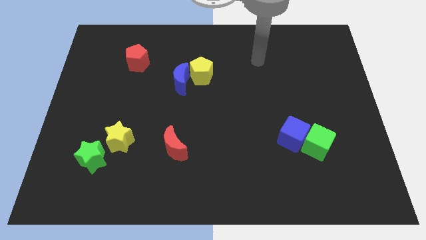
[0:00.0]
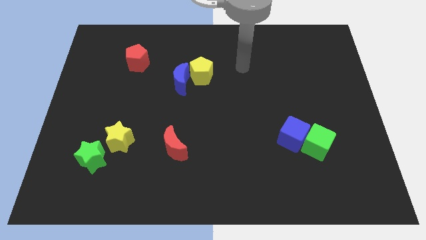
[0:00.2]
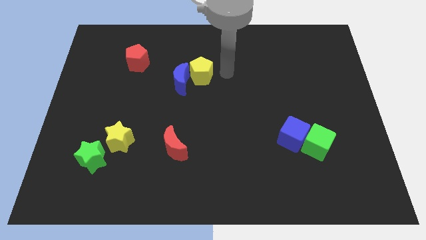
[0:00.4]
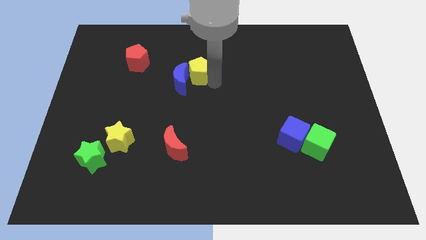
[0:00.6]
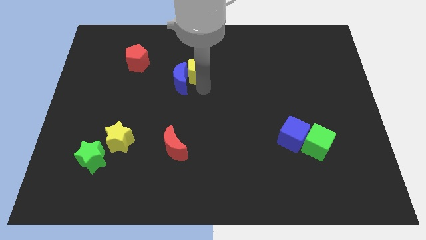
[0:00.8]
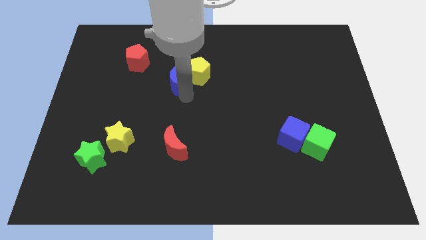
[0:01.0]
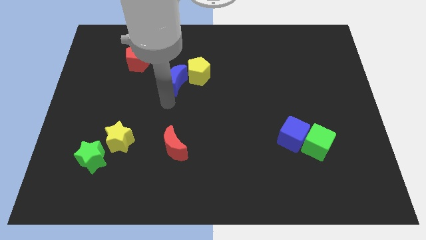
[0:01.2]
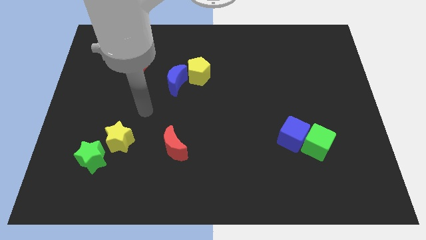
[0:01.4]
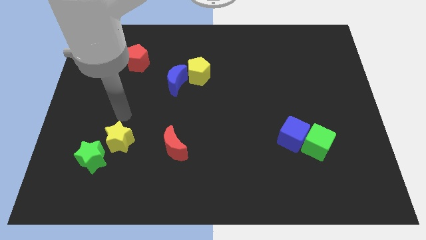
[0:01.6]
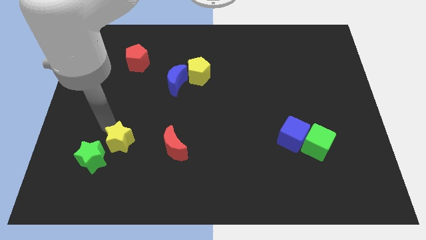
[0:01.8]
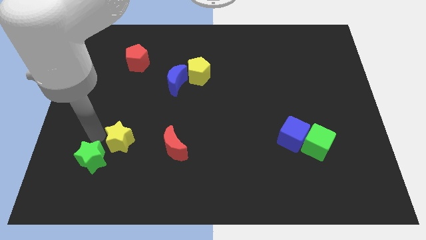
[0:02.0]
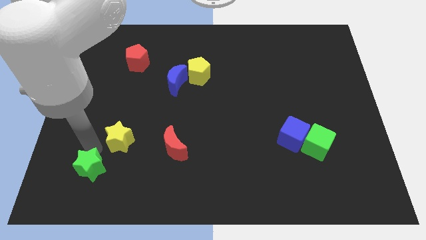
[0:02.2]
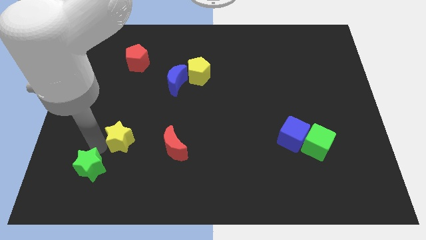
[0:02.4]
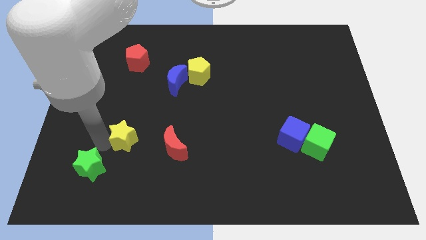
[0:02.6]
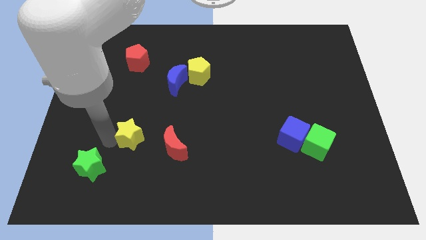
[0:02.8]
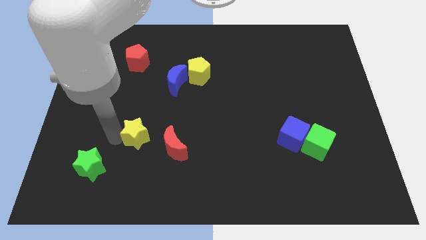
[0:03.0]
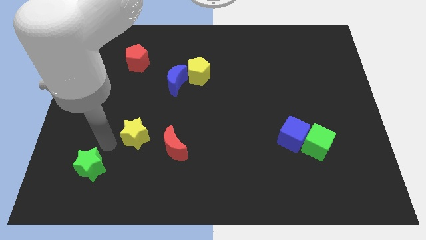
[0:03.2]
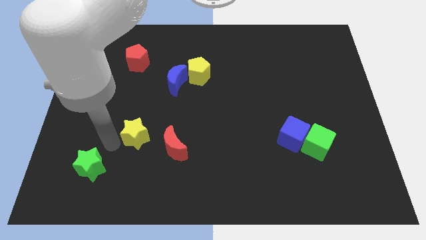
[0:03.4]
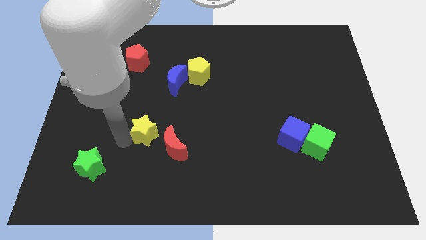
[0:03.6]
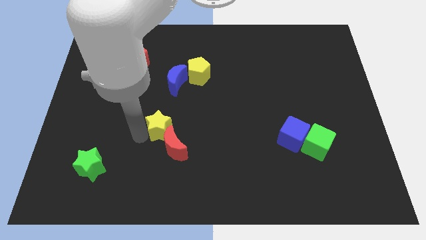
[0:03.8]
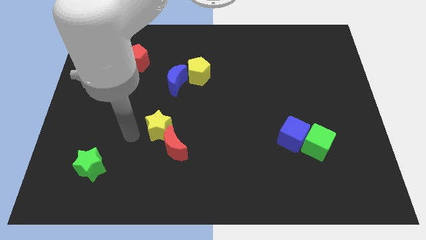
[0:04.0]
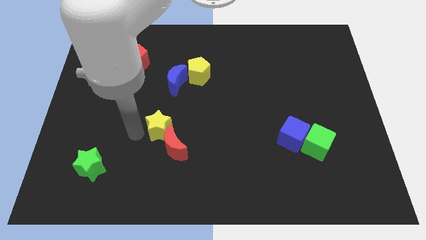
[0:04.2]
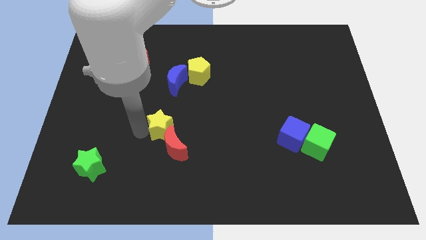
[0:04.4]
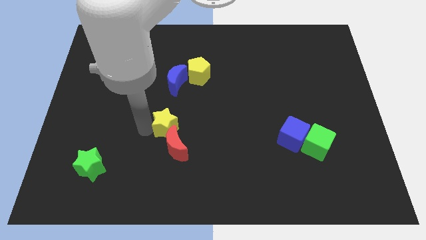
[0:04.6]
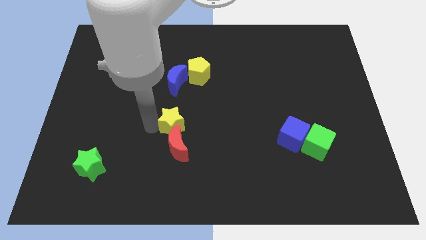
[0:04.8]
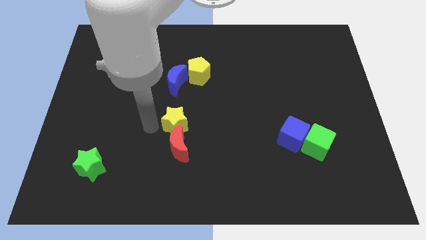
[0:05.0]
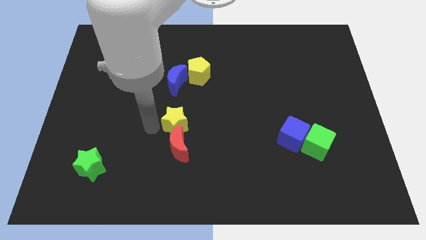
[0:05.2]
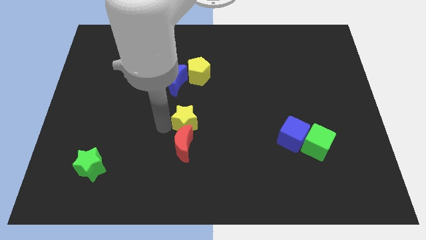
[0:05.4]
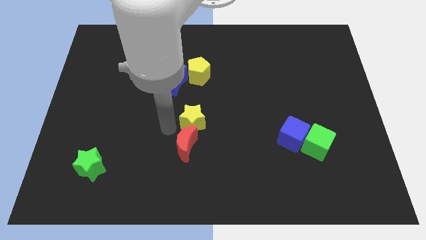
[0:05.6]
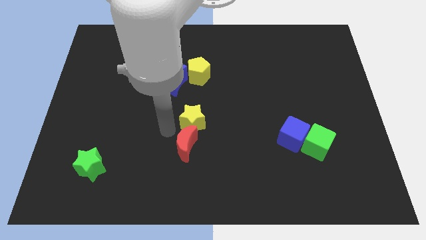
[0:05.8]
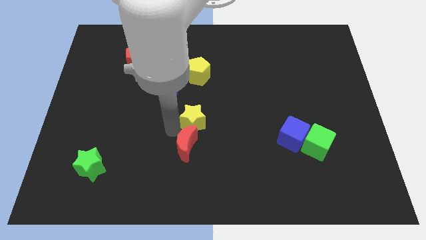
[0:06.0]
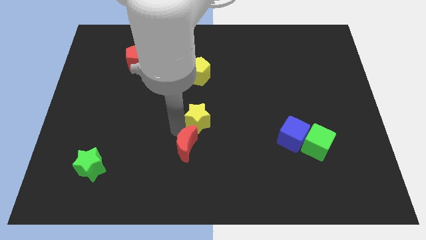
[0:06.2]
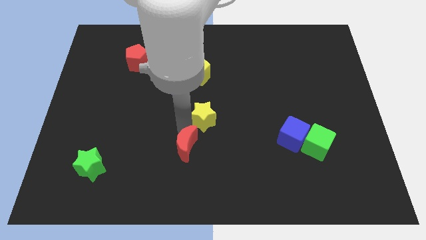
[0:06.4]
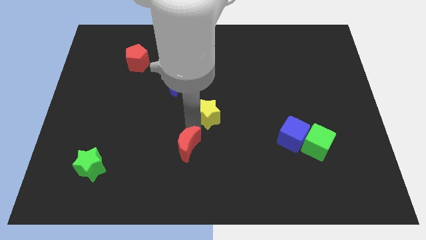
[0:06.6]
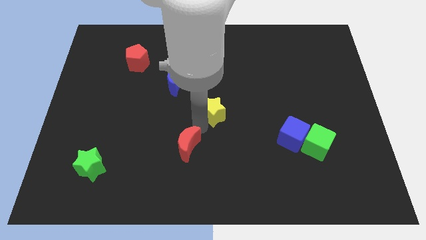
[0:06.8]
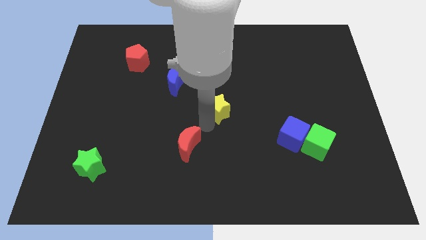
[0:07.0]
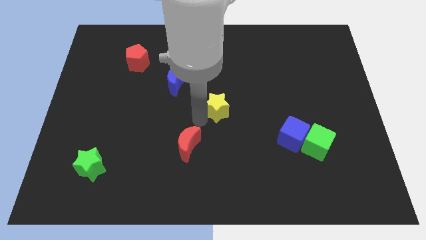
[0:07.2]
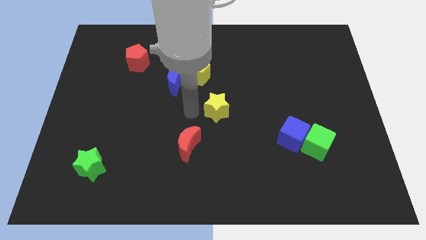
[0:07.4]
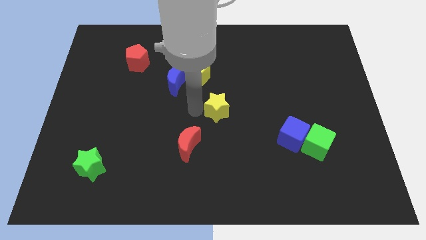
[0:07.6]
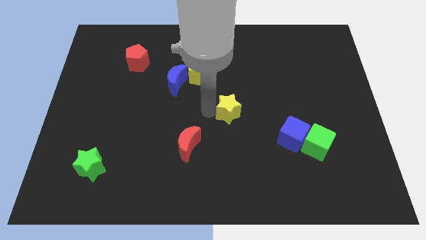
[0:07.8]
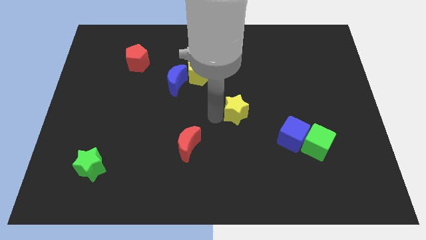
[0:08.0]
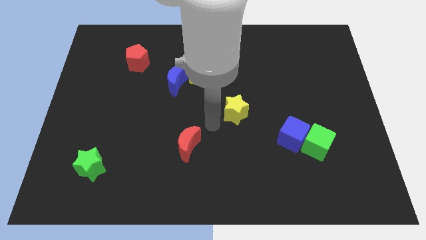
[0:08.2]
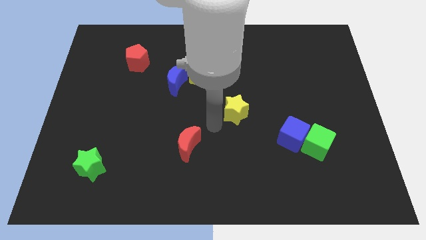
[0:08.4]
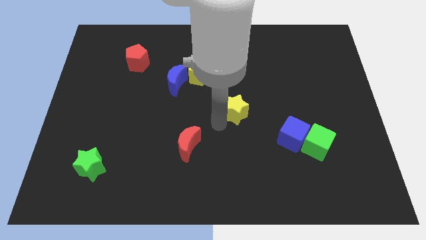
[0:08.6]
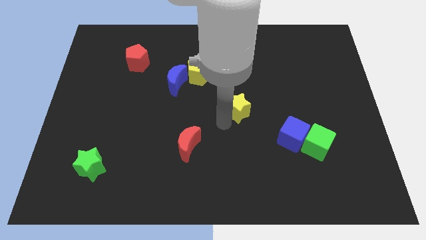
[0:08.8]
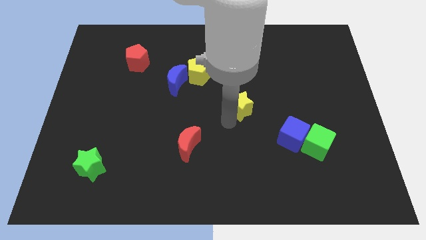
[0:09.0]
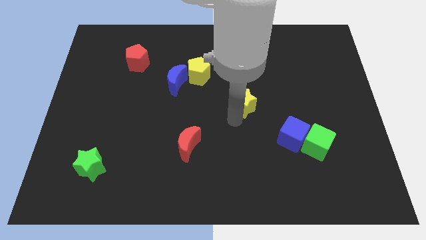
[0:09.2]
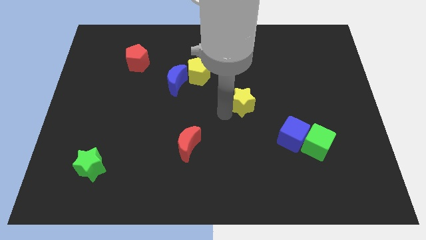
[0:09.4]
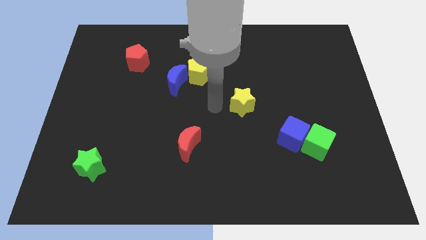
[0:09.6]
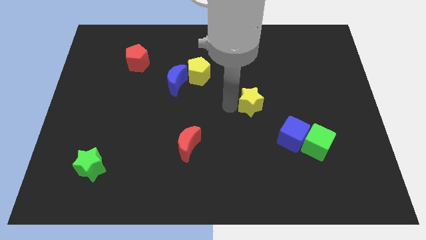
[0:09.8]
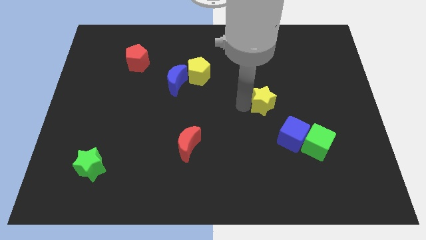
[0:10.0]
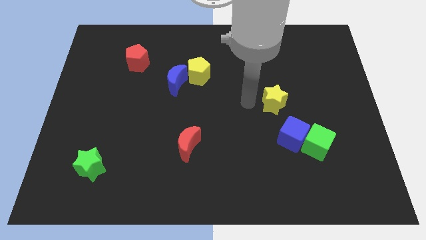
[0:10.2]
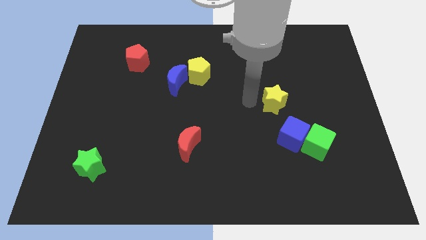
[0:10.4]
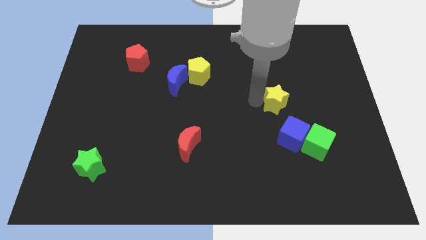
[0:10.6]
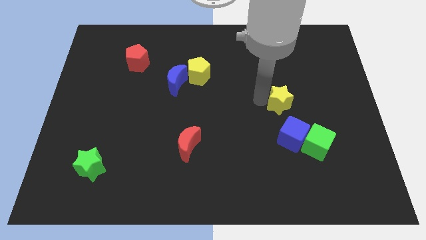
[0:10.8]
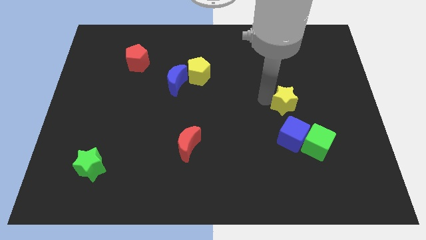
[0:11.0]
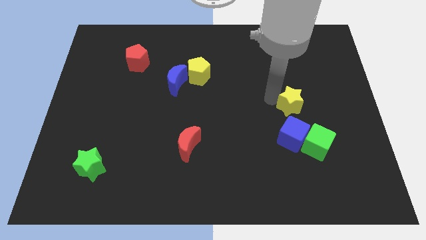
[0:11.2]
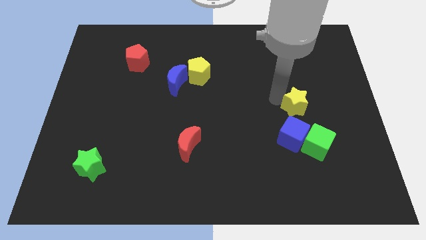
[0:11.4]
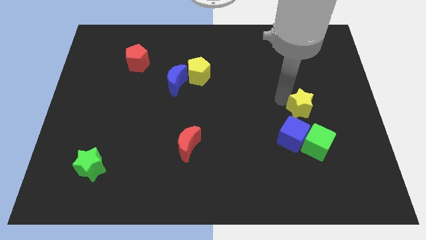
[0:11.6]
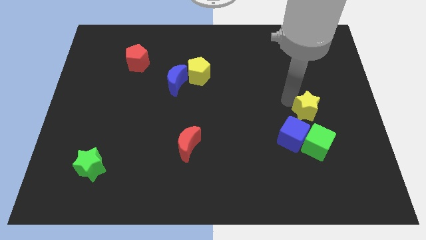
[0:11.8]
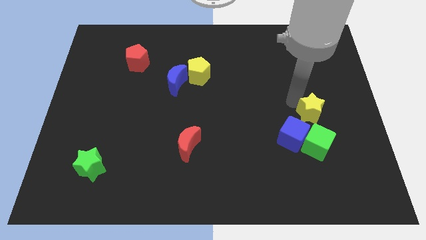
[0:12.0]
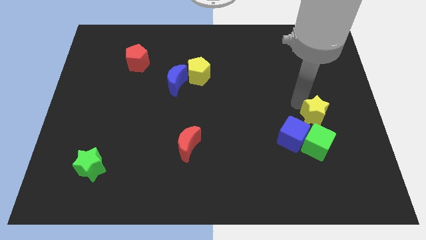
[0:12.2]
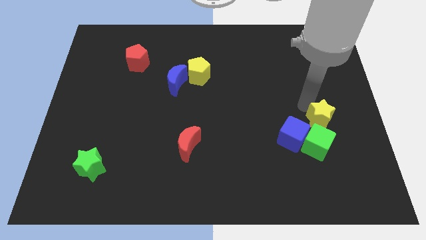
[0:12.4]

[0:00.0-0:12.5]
slide the yellow star to the right of the blue cube

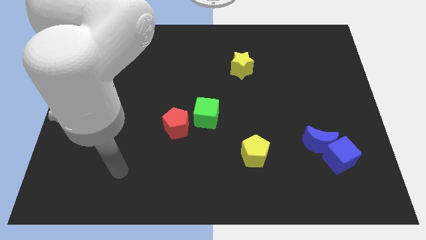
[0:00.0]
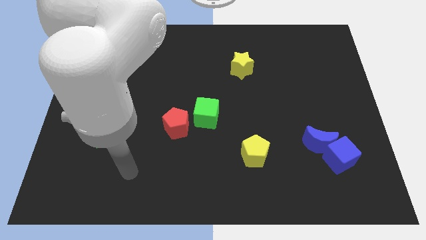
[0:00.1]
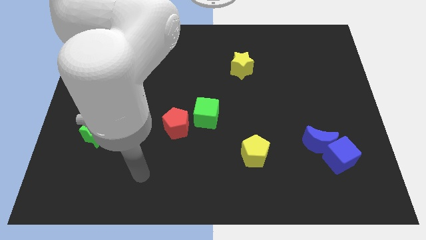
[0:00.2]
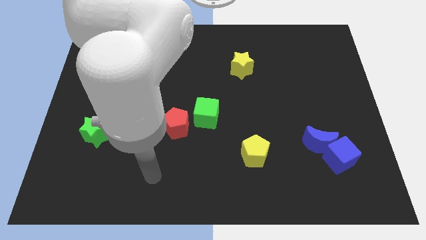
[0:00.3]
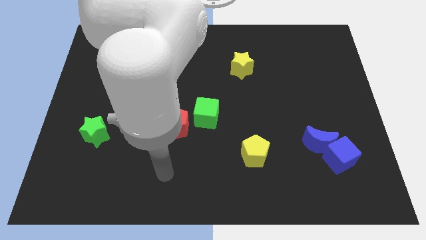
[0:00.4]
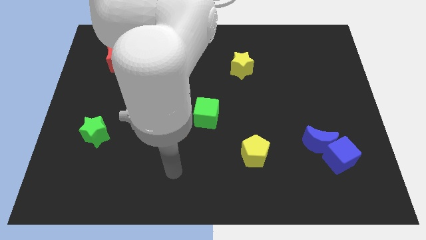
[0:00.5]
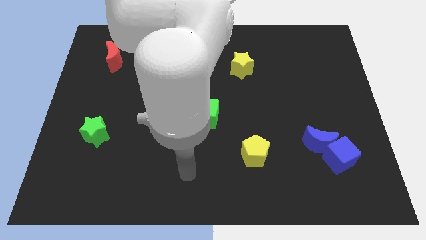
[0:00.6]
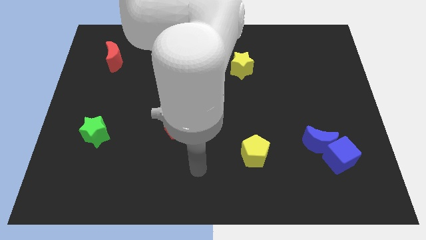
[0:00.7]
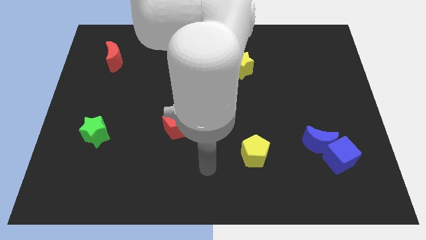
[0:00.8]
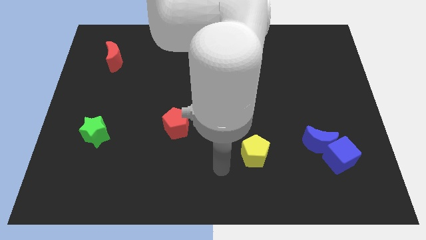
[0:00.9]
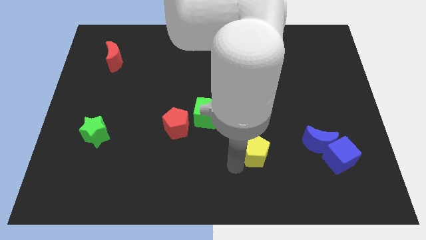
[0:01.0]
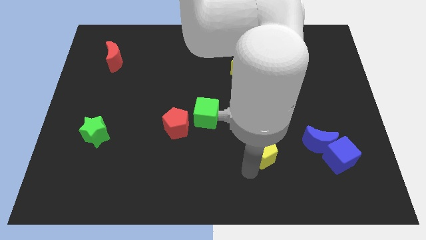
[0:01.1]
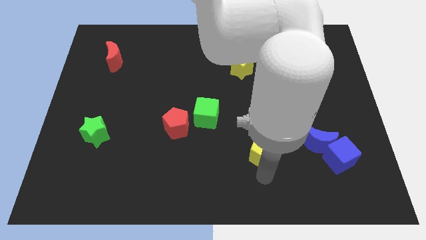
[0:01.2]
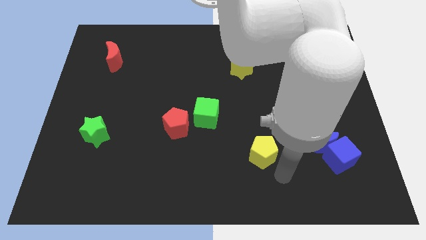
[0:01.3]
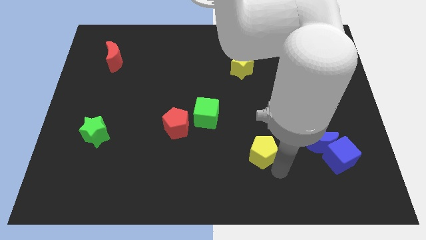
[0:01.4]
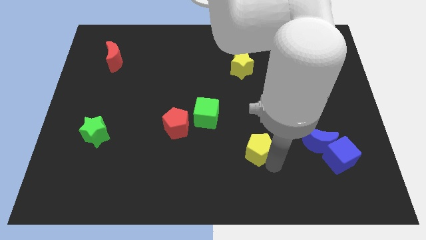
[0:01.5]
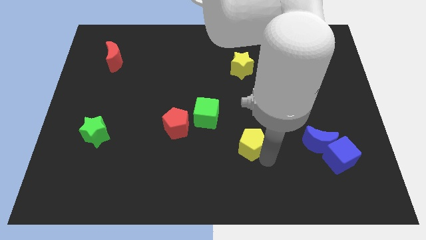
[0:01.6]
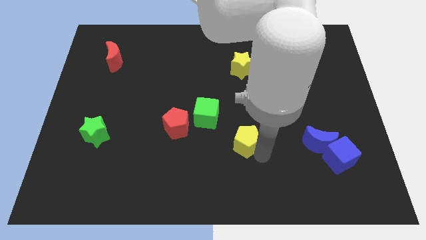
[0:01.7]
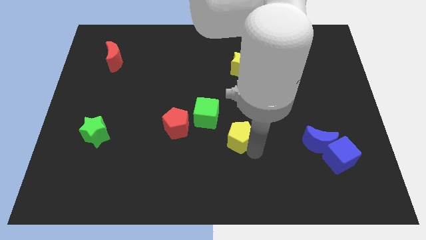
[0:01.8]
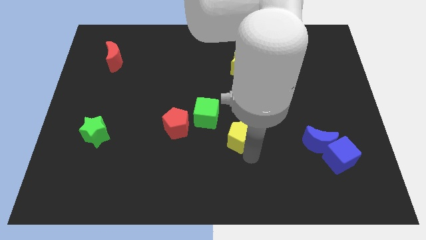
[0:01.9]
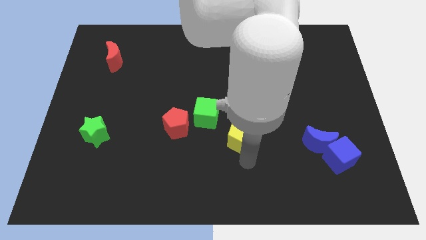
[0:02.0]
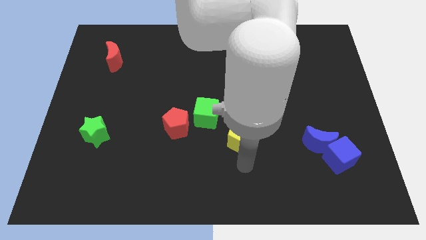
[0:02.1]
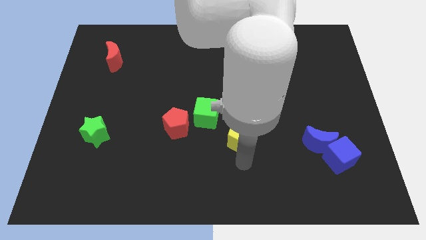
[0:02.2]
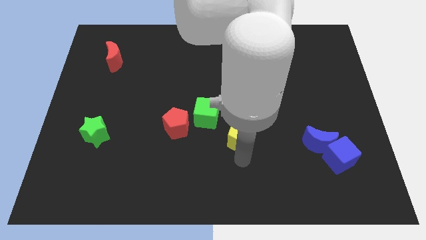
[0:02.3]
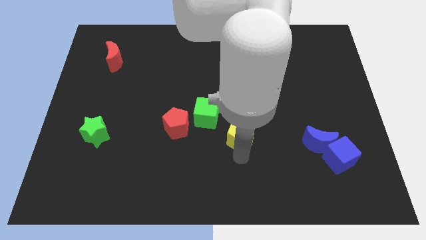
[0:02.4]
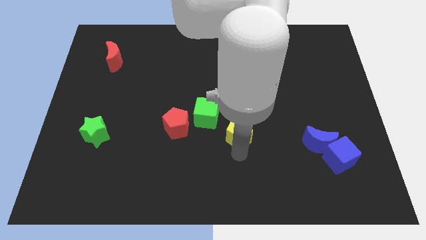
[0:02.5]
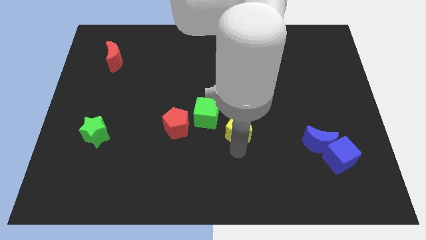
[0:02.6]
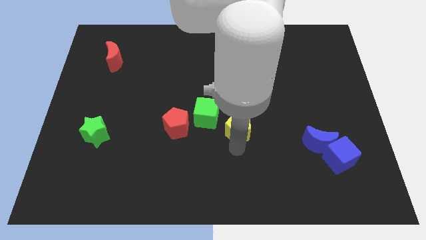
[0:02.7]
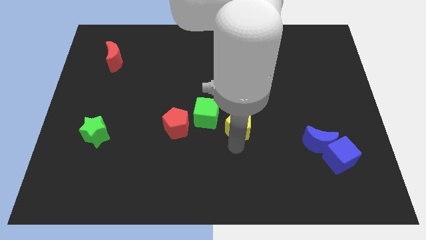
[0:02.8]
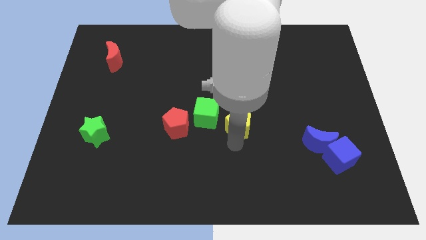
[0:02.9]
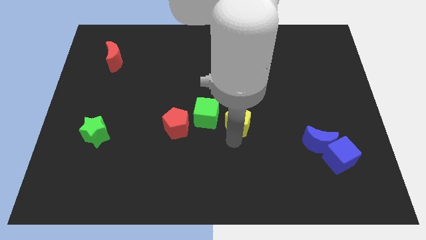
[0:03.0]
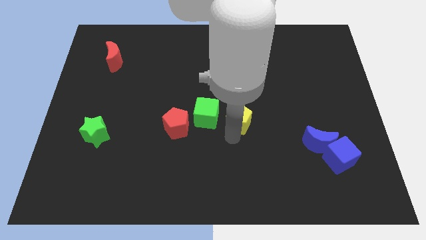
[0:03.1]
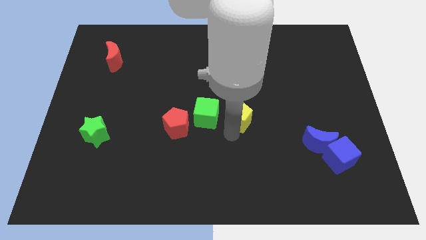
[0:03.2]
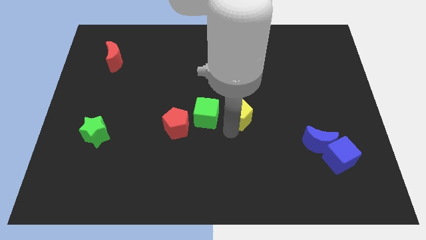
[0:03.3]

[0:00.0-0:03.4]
slide the yellow pentagon to the bottom of the yellow star
